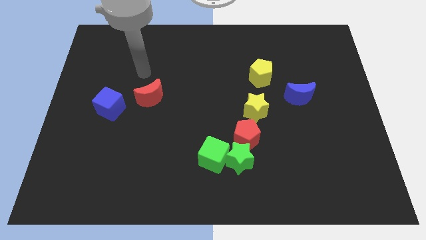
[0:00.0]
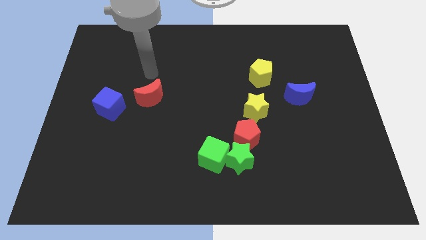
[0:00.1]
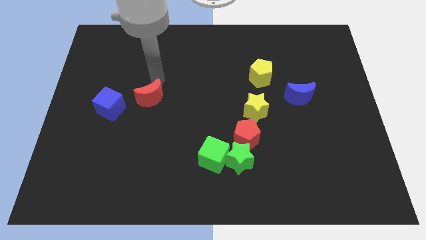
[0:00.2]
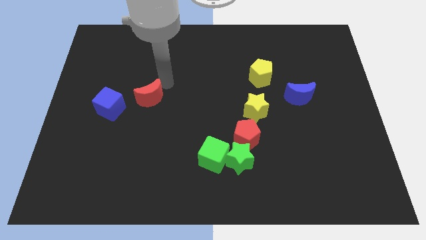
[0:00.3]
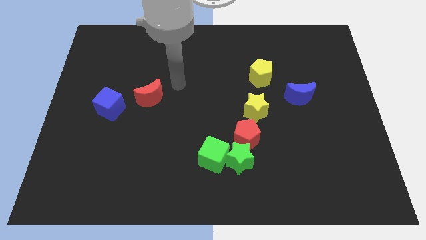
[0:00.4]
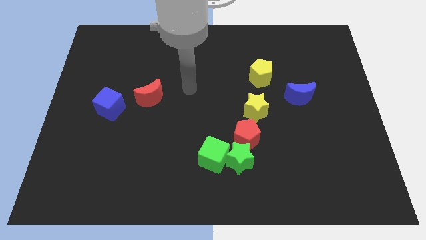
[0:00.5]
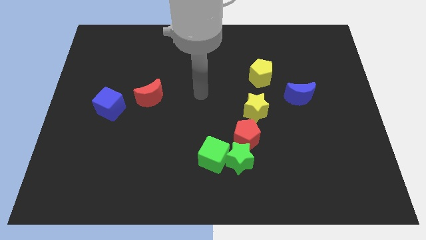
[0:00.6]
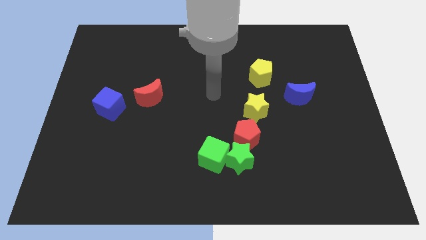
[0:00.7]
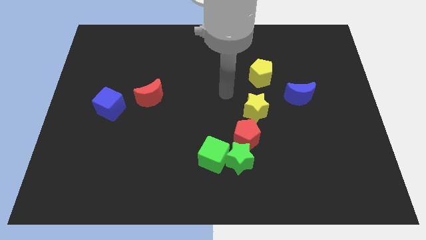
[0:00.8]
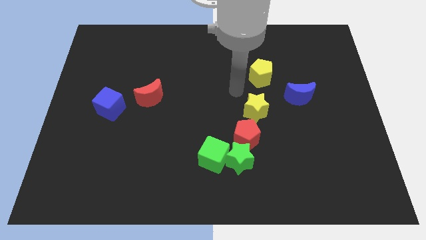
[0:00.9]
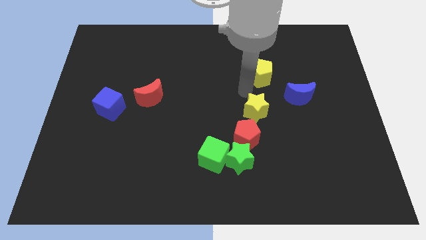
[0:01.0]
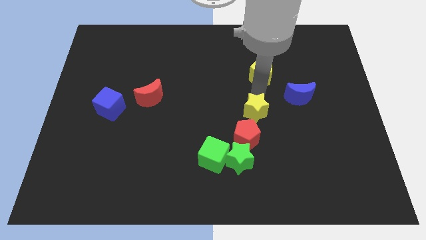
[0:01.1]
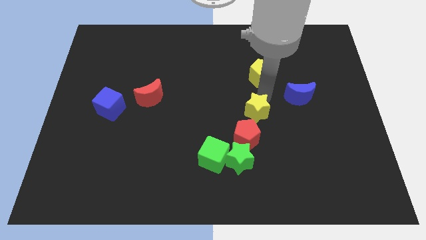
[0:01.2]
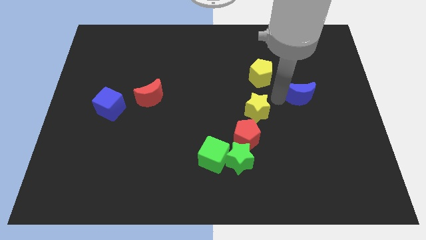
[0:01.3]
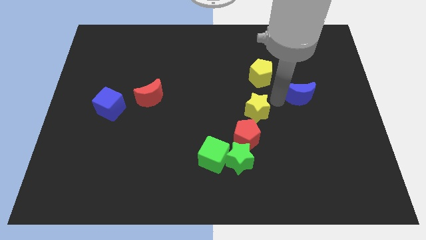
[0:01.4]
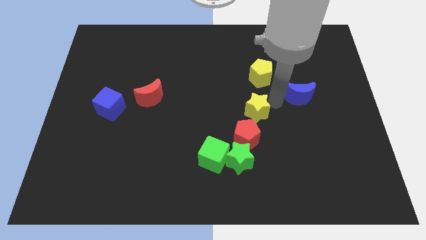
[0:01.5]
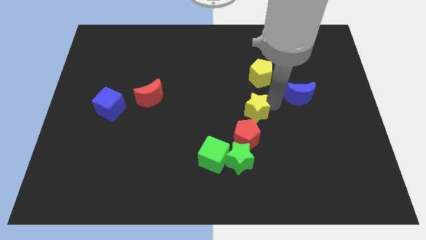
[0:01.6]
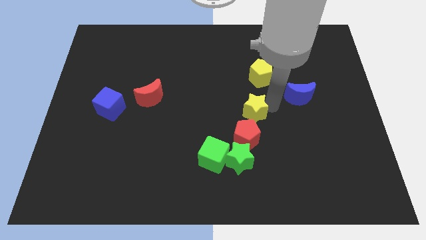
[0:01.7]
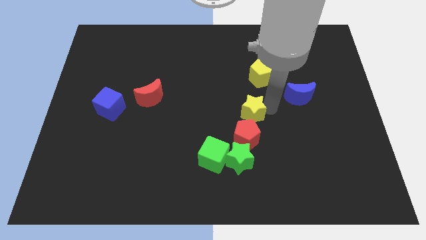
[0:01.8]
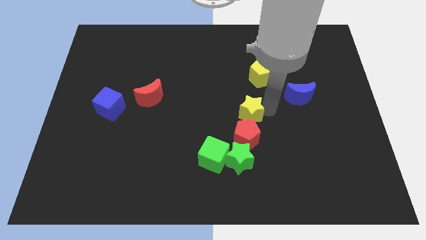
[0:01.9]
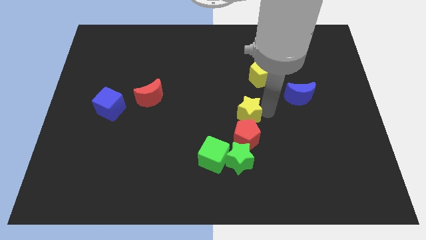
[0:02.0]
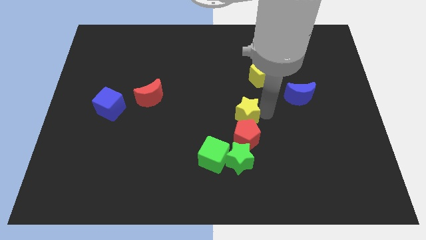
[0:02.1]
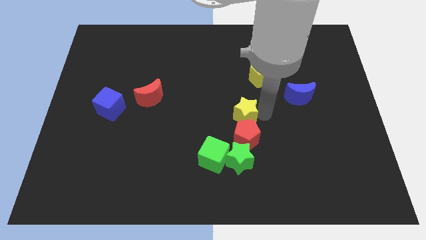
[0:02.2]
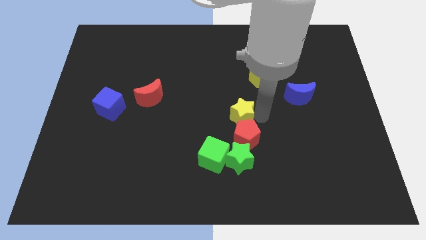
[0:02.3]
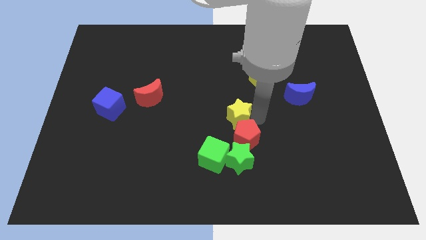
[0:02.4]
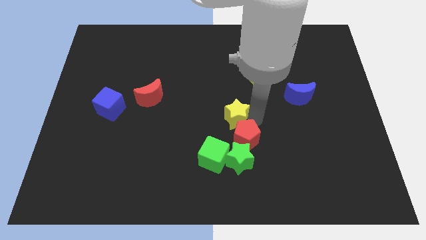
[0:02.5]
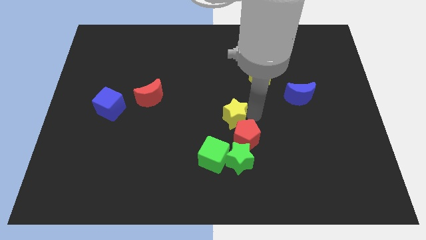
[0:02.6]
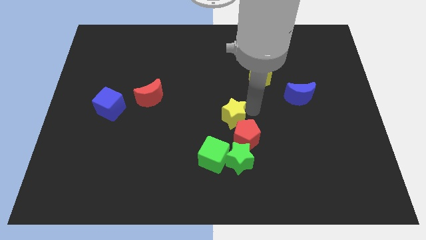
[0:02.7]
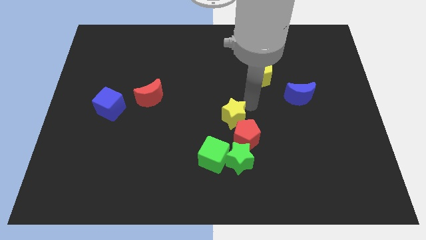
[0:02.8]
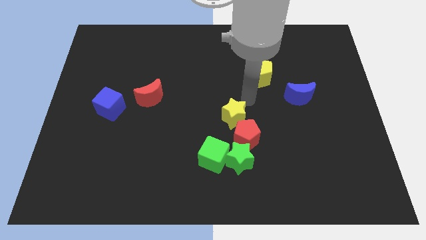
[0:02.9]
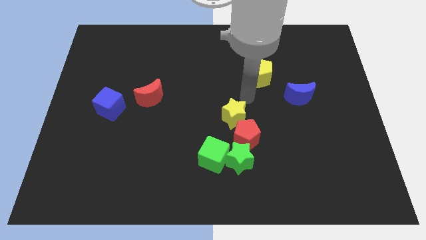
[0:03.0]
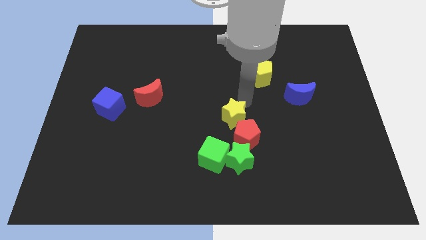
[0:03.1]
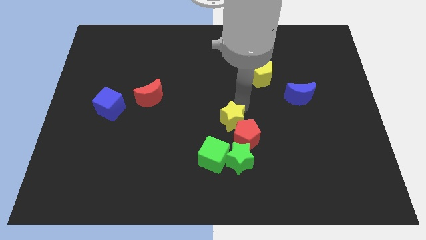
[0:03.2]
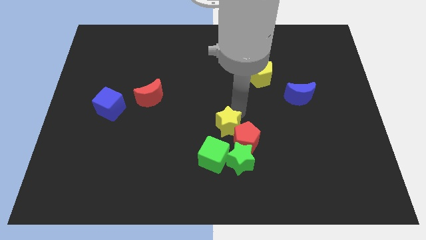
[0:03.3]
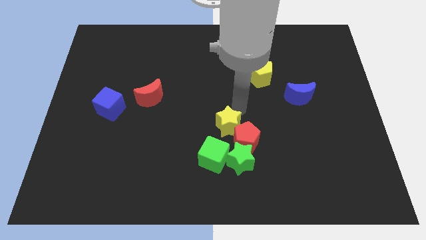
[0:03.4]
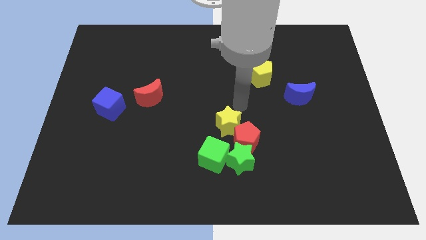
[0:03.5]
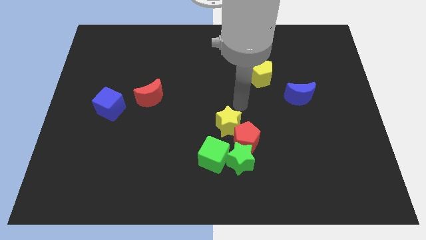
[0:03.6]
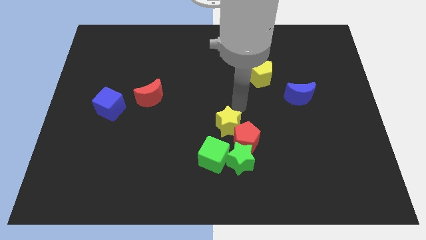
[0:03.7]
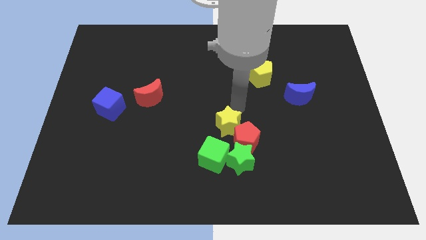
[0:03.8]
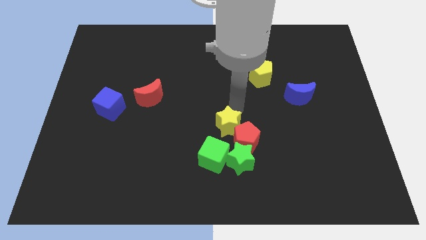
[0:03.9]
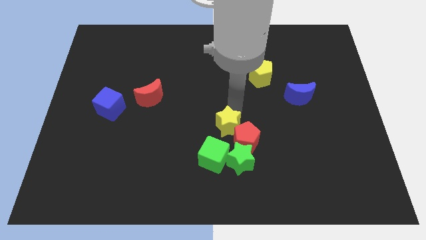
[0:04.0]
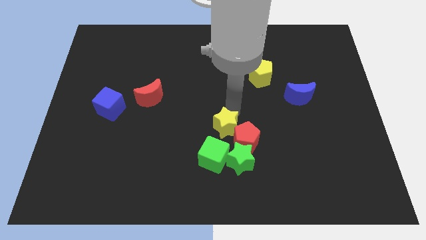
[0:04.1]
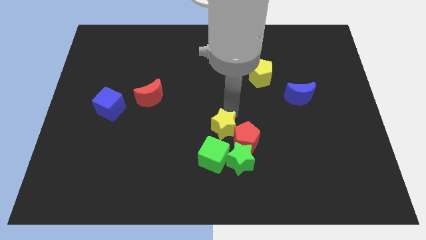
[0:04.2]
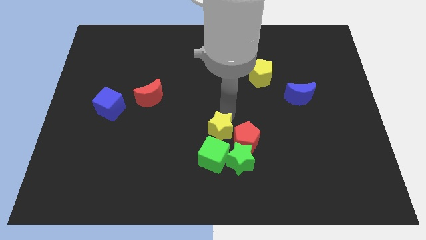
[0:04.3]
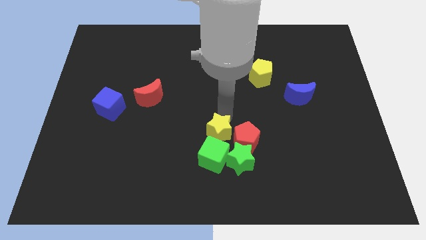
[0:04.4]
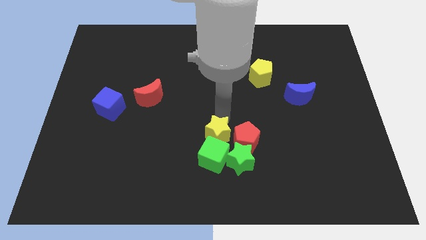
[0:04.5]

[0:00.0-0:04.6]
push the yellow star towards the green cube

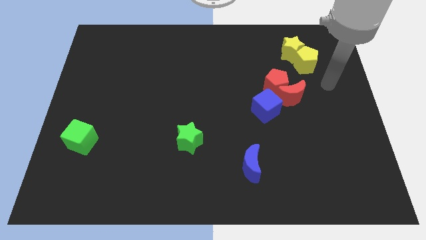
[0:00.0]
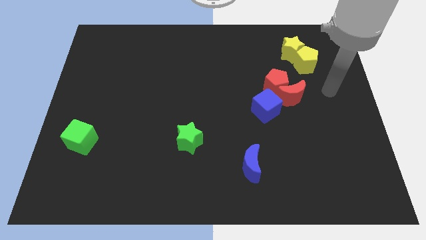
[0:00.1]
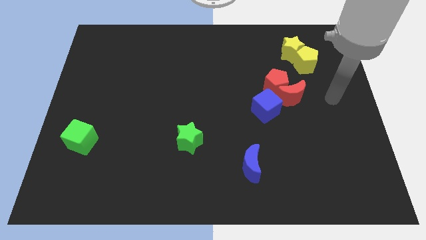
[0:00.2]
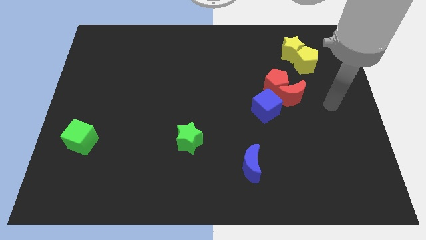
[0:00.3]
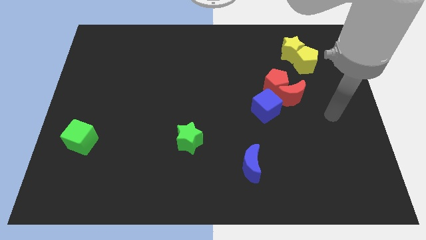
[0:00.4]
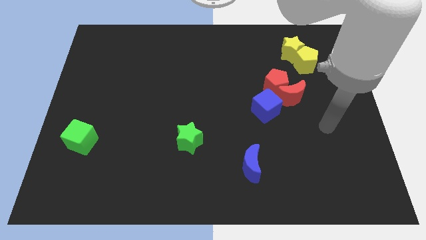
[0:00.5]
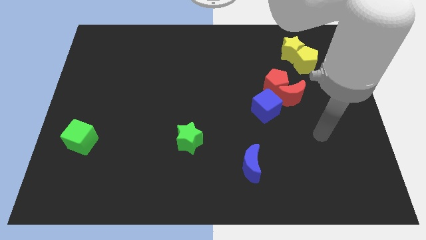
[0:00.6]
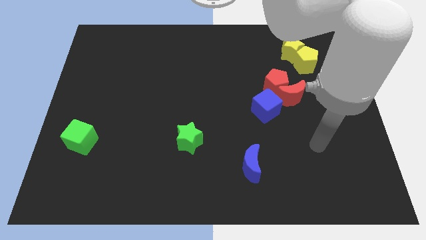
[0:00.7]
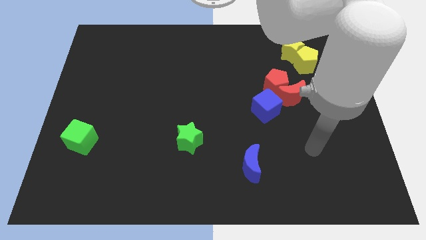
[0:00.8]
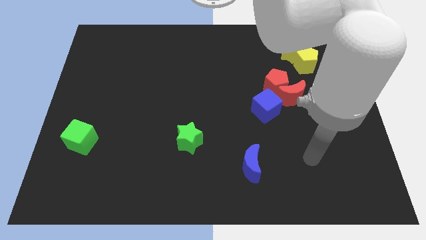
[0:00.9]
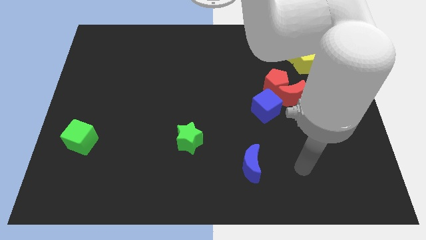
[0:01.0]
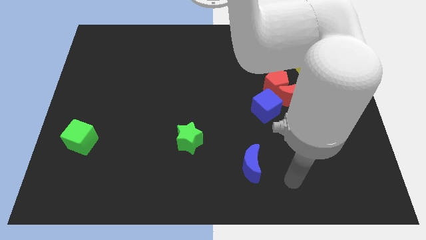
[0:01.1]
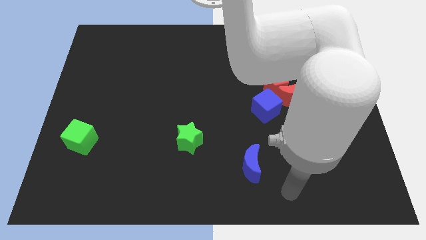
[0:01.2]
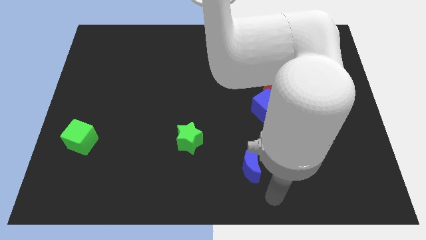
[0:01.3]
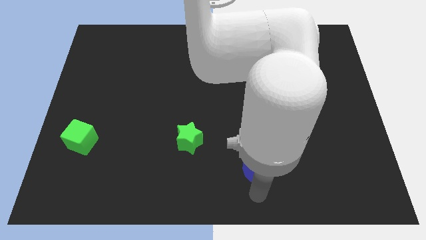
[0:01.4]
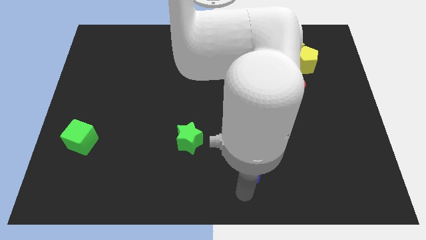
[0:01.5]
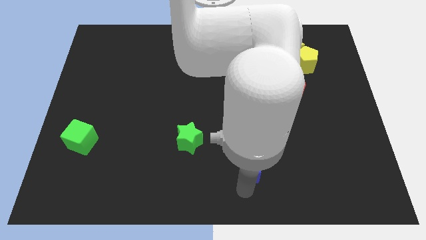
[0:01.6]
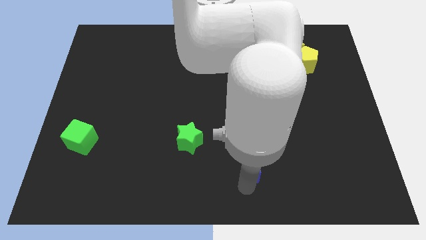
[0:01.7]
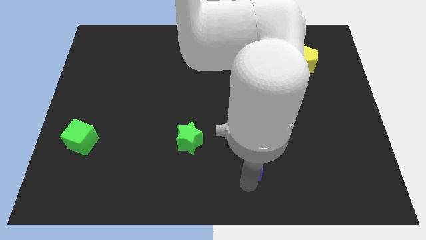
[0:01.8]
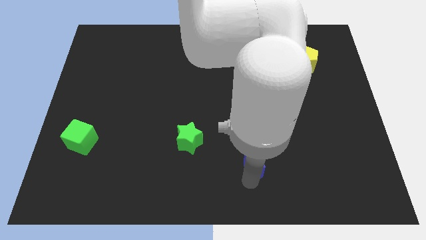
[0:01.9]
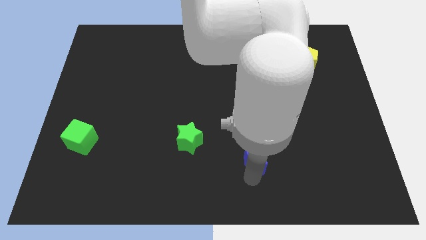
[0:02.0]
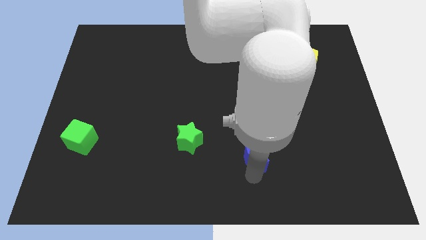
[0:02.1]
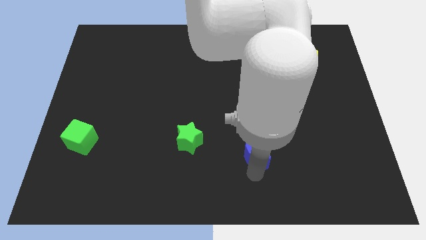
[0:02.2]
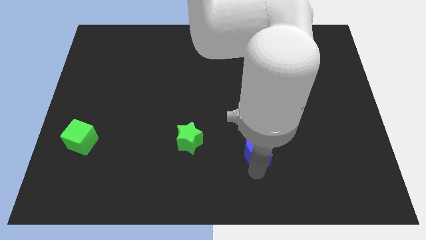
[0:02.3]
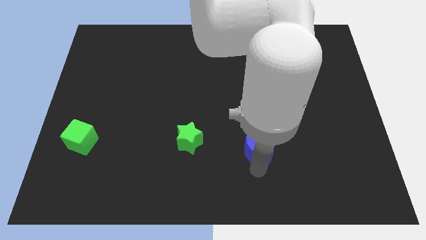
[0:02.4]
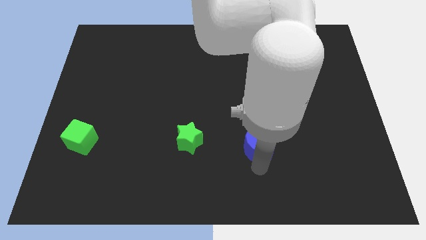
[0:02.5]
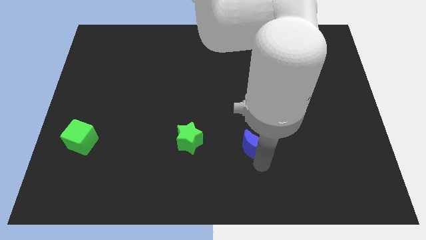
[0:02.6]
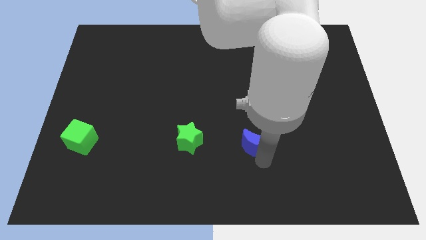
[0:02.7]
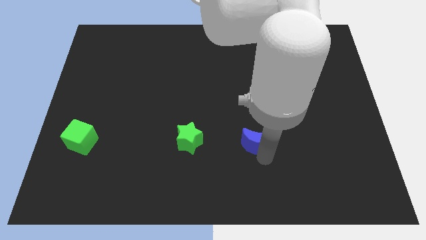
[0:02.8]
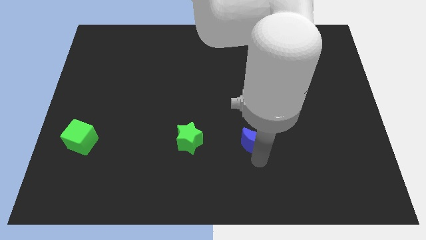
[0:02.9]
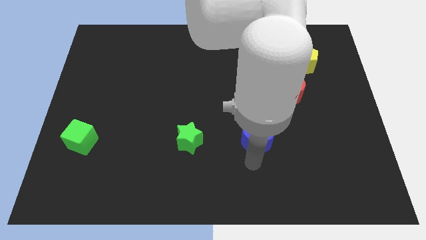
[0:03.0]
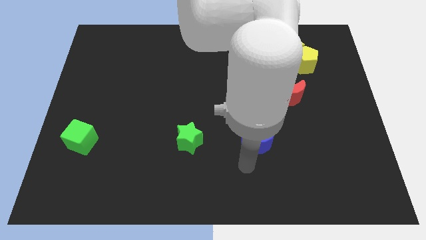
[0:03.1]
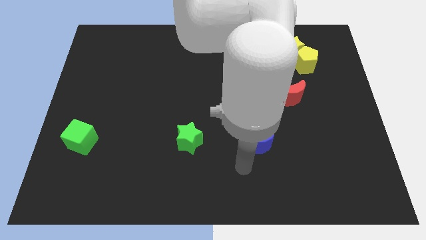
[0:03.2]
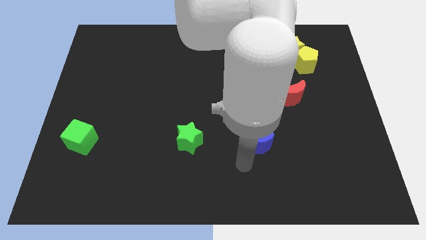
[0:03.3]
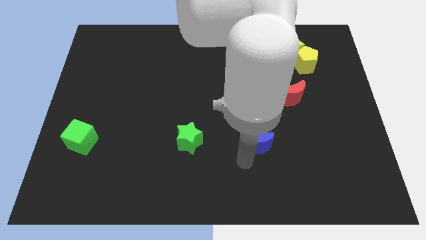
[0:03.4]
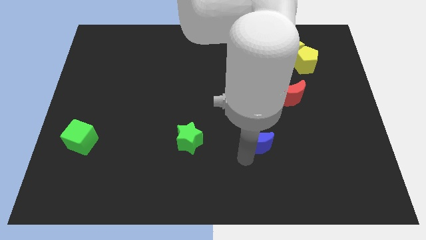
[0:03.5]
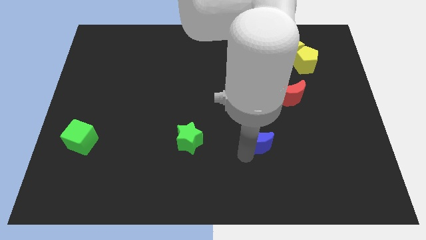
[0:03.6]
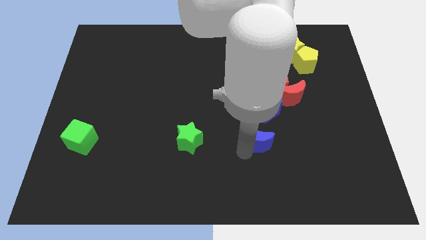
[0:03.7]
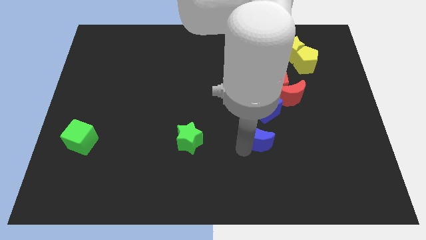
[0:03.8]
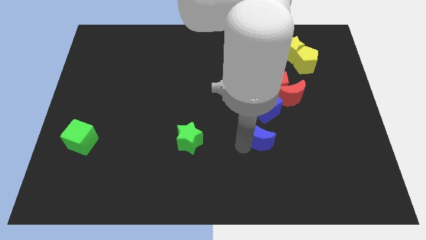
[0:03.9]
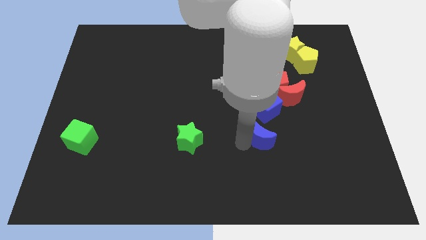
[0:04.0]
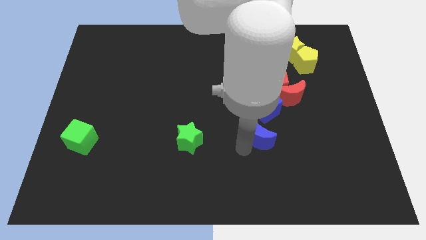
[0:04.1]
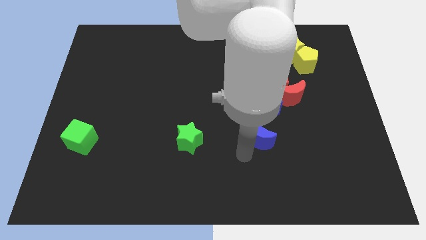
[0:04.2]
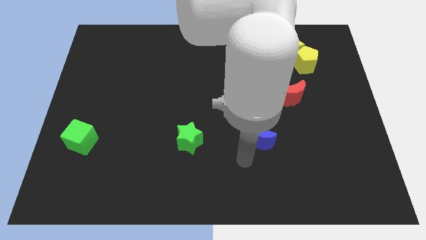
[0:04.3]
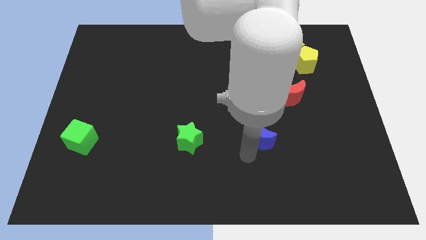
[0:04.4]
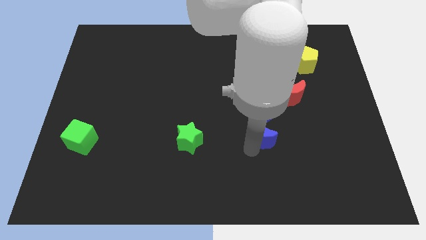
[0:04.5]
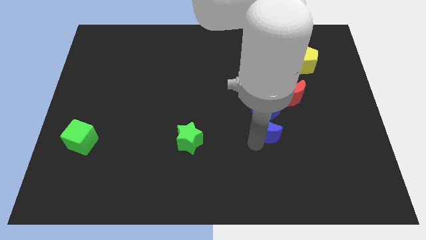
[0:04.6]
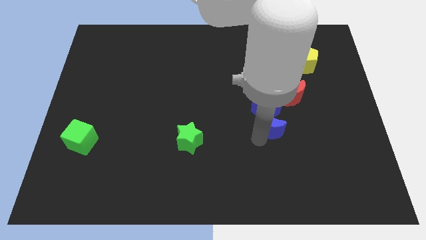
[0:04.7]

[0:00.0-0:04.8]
push the blue moon towards the blue cube
